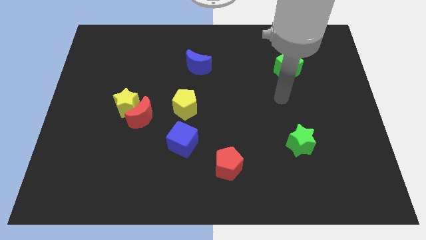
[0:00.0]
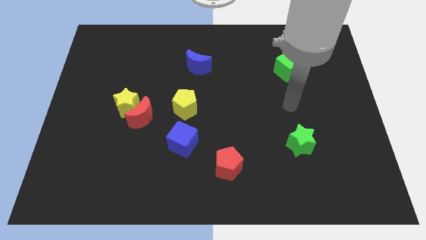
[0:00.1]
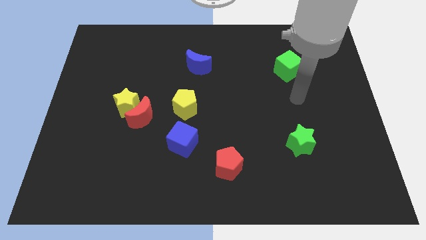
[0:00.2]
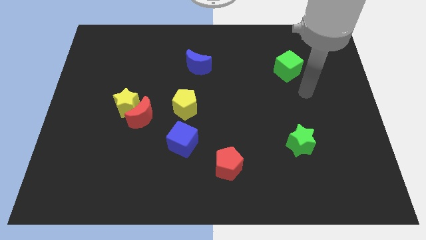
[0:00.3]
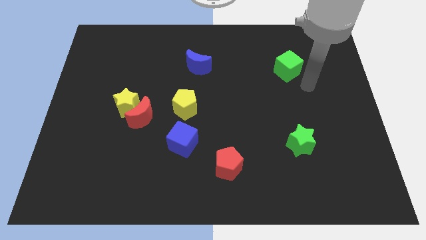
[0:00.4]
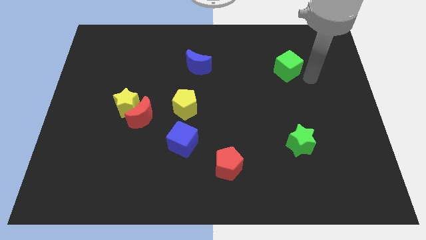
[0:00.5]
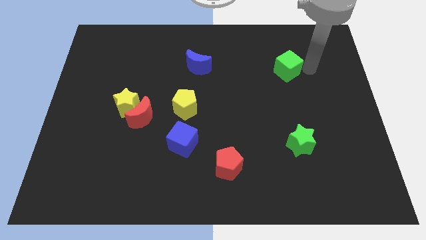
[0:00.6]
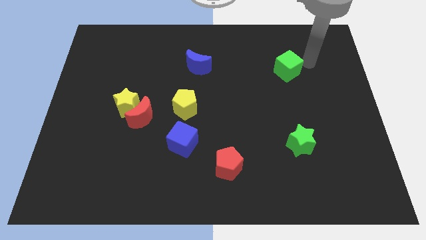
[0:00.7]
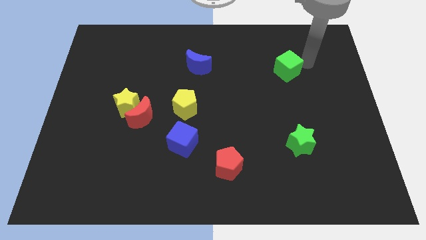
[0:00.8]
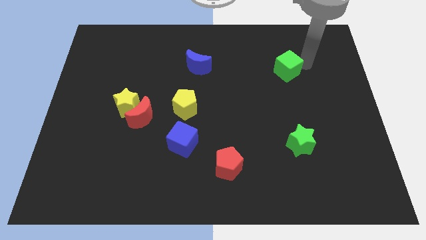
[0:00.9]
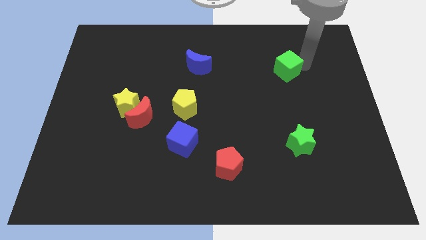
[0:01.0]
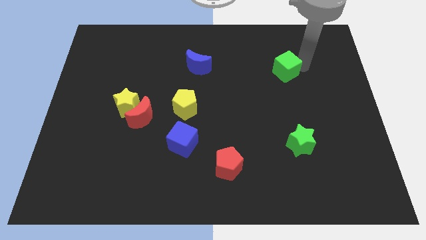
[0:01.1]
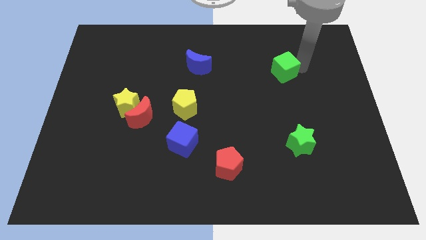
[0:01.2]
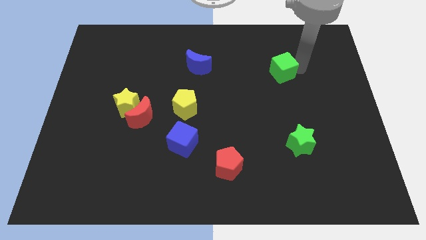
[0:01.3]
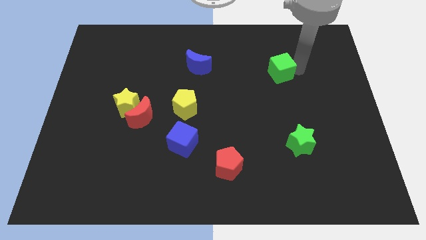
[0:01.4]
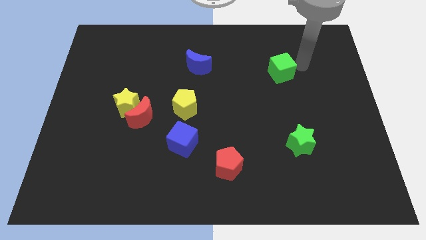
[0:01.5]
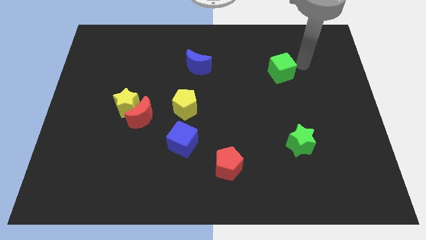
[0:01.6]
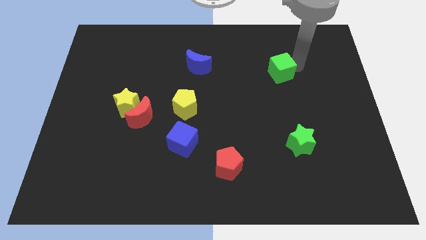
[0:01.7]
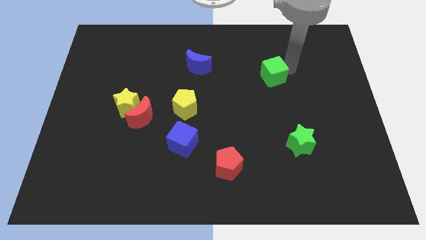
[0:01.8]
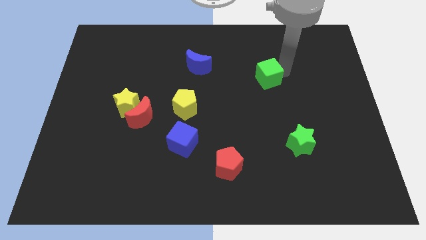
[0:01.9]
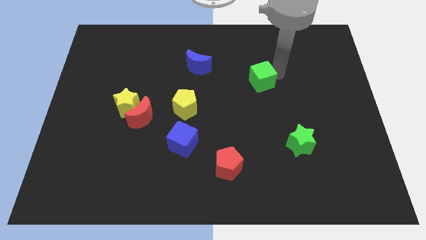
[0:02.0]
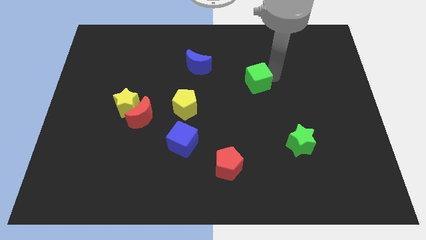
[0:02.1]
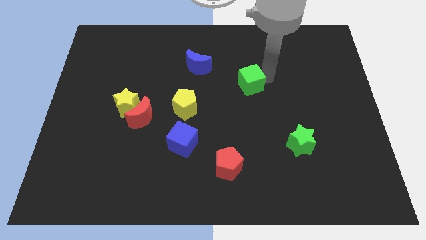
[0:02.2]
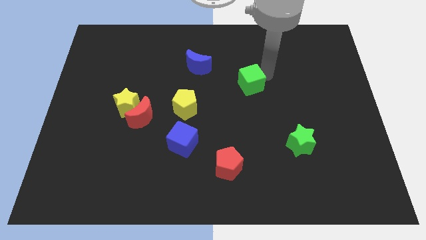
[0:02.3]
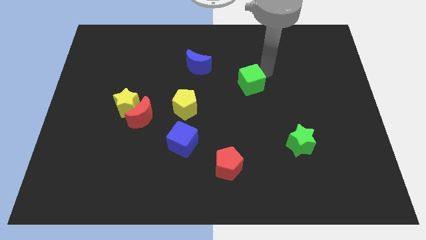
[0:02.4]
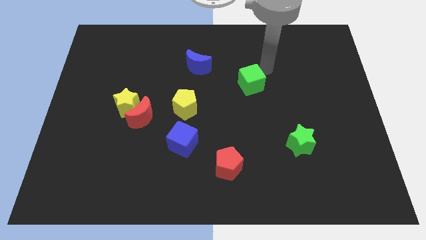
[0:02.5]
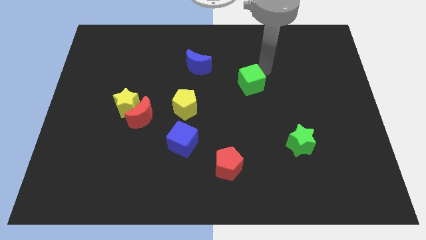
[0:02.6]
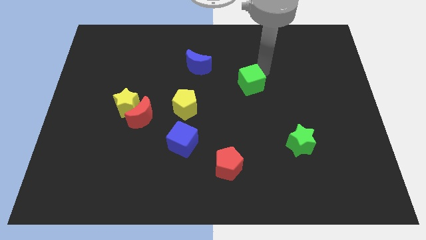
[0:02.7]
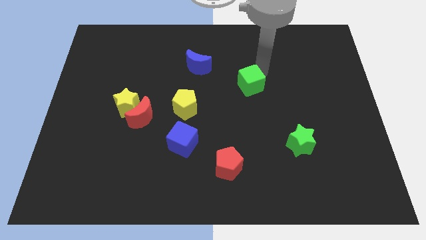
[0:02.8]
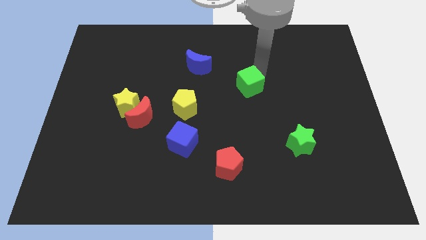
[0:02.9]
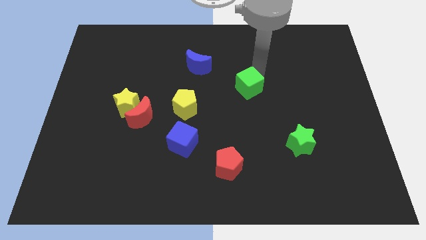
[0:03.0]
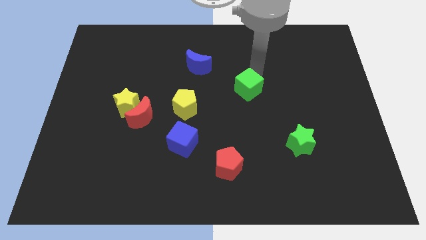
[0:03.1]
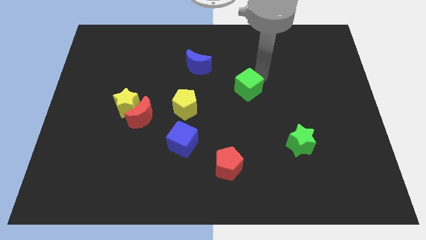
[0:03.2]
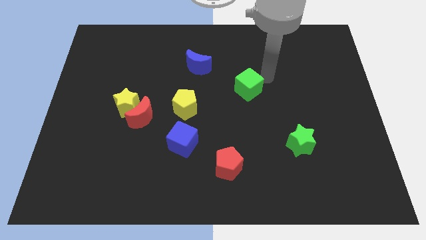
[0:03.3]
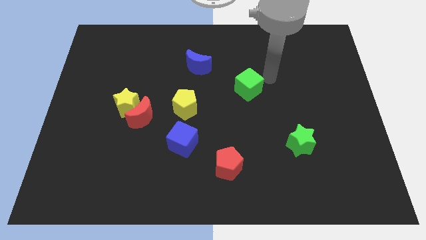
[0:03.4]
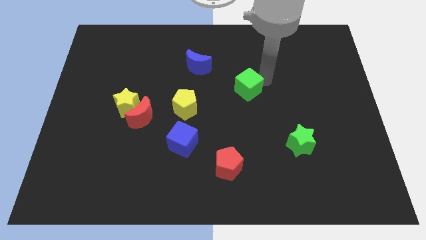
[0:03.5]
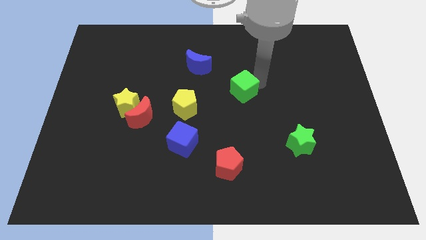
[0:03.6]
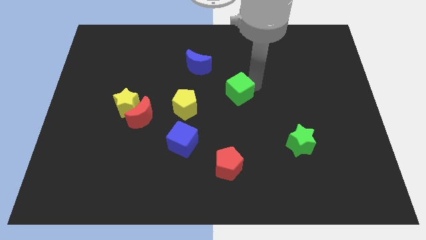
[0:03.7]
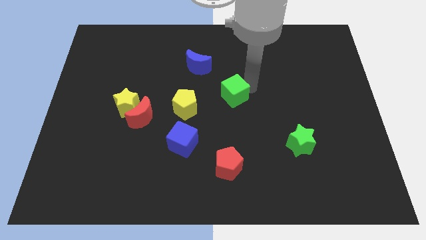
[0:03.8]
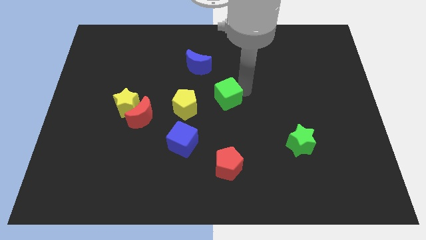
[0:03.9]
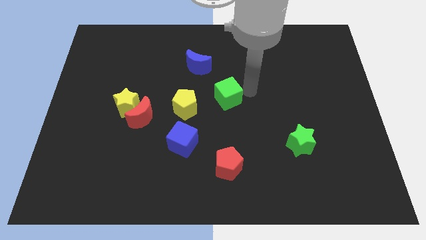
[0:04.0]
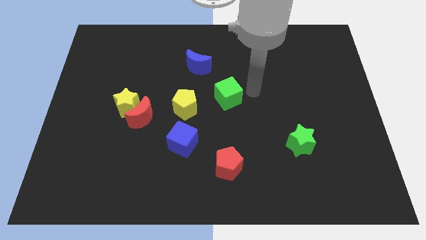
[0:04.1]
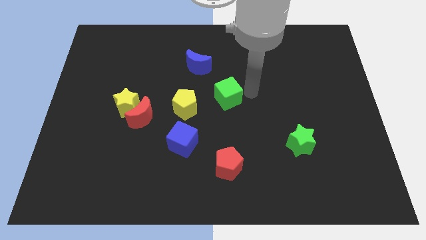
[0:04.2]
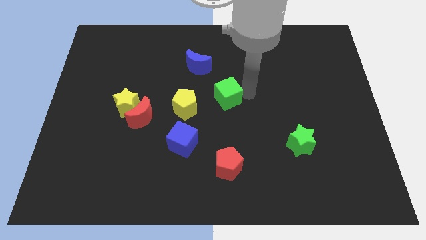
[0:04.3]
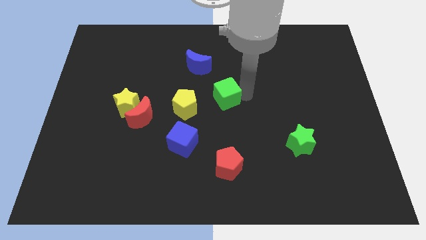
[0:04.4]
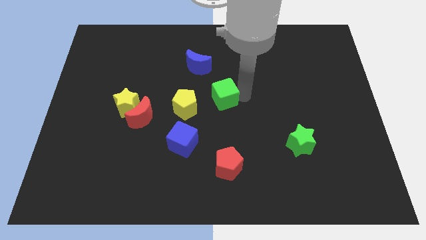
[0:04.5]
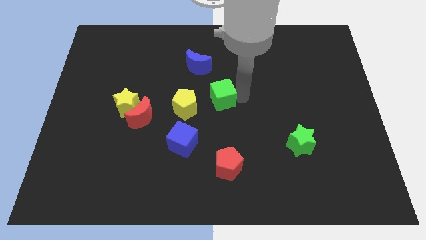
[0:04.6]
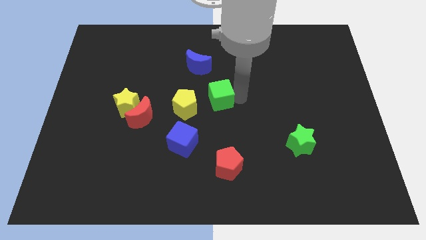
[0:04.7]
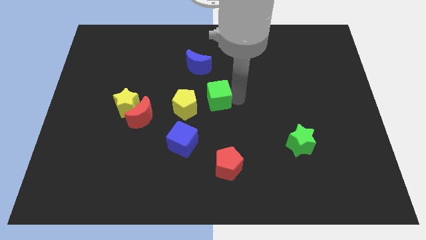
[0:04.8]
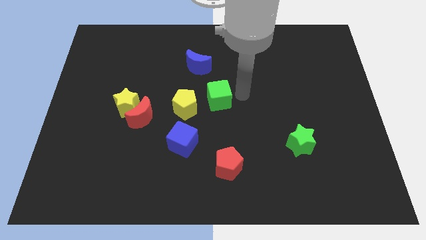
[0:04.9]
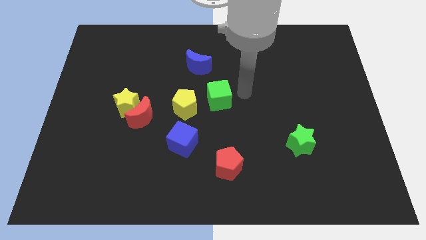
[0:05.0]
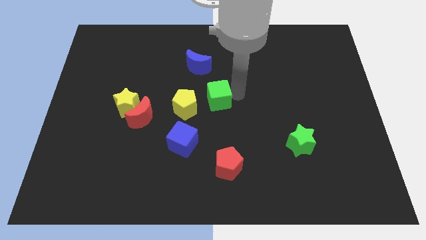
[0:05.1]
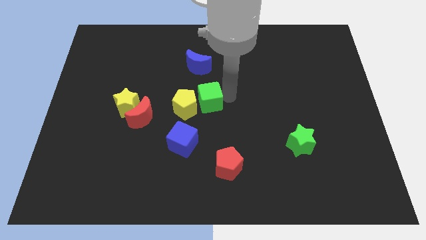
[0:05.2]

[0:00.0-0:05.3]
slide the green cube towards the yellow pentagon

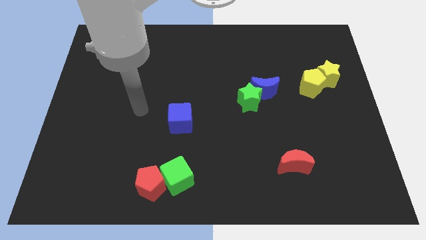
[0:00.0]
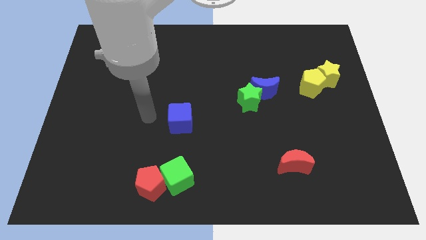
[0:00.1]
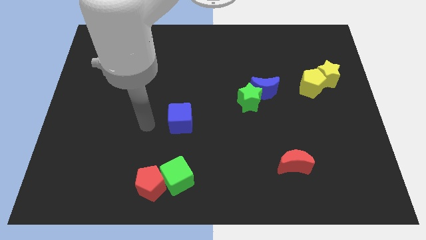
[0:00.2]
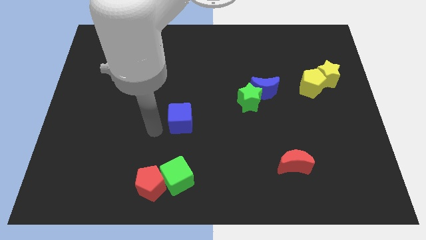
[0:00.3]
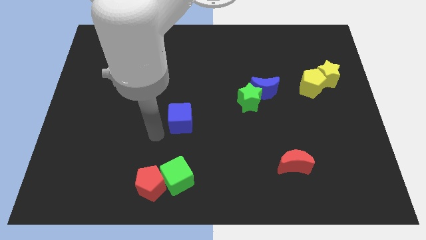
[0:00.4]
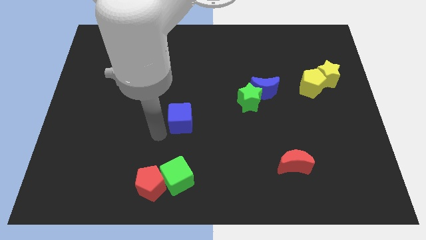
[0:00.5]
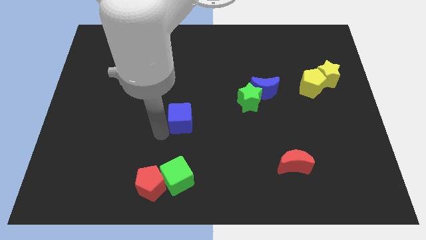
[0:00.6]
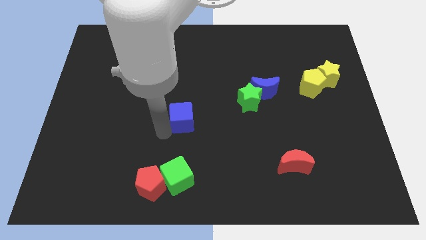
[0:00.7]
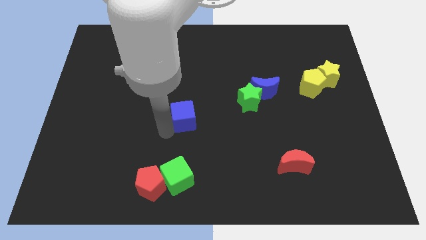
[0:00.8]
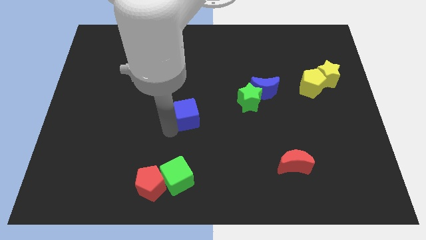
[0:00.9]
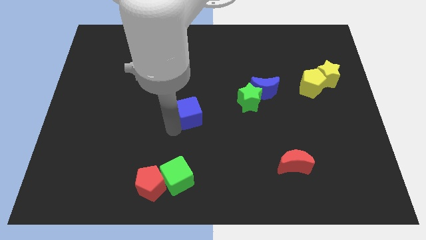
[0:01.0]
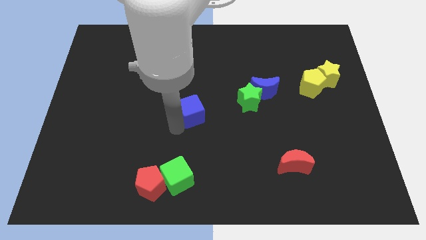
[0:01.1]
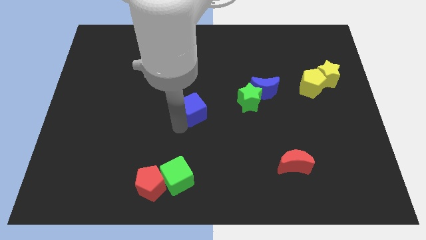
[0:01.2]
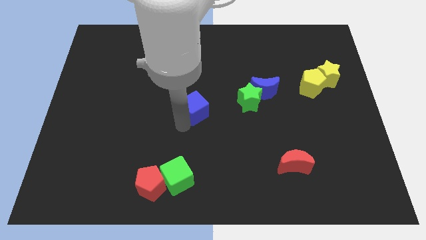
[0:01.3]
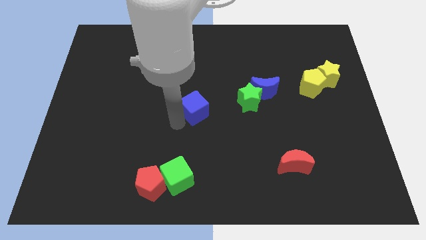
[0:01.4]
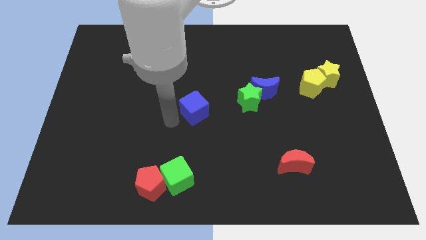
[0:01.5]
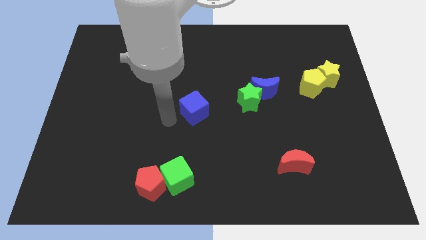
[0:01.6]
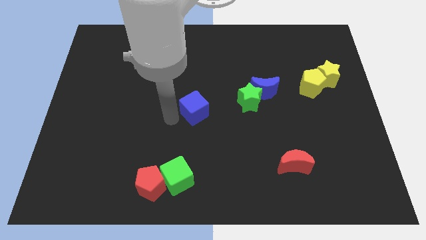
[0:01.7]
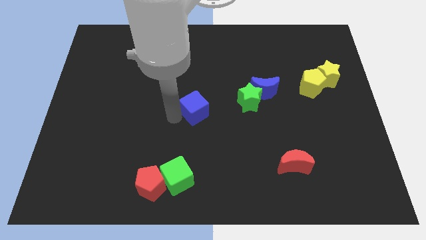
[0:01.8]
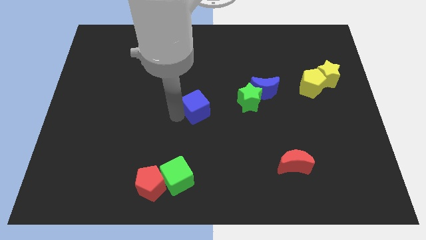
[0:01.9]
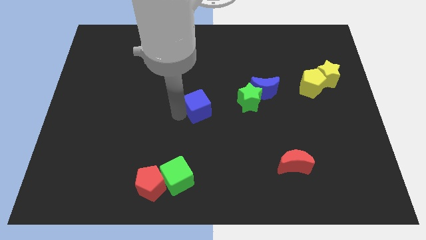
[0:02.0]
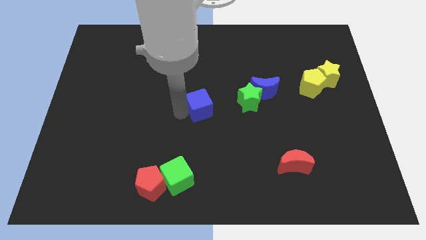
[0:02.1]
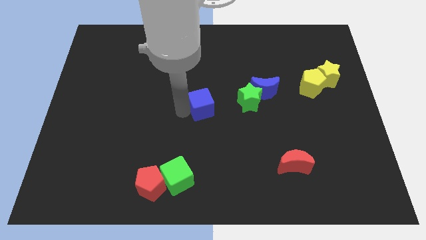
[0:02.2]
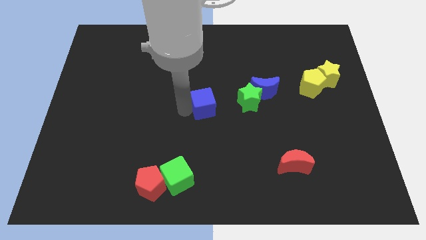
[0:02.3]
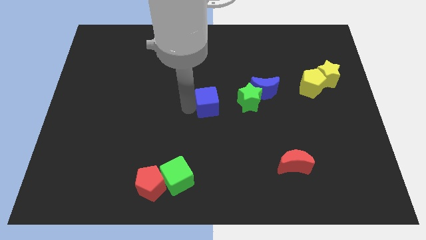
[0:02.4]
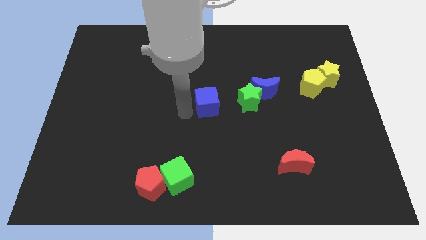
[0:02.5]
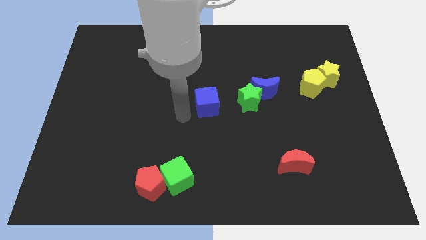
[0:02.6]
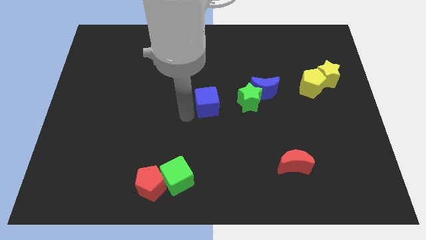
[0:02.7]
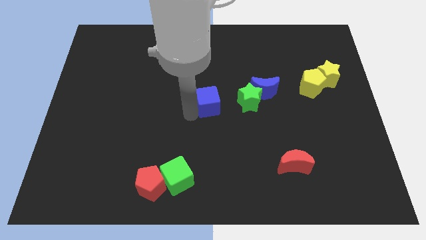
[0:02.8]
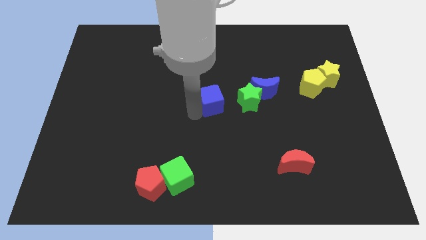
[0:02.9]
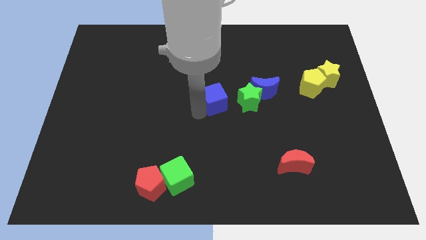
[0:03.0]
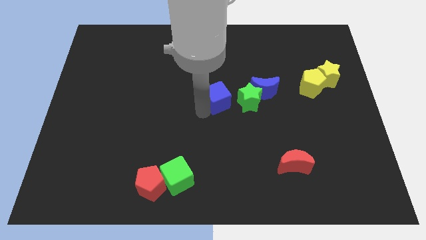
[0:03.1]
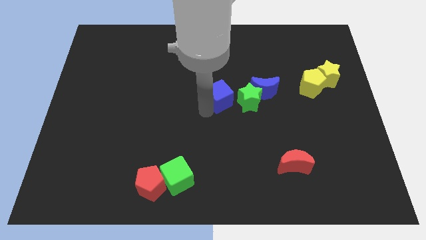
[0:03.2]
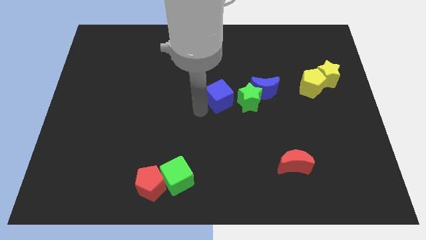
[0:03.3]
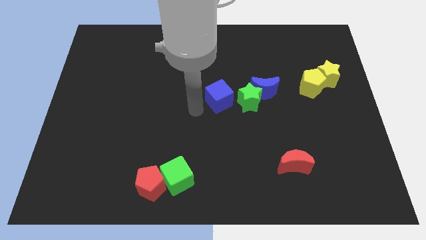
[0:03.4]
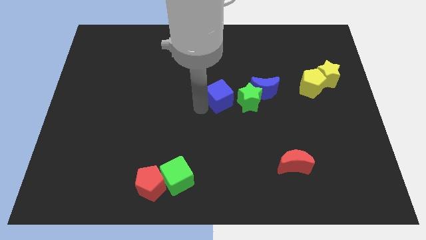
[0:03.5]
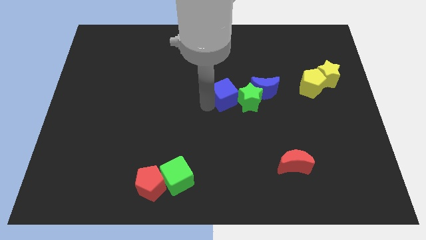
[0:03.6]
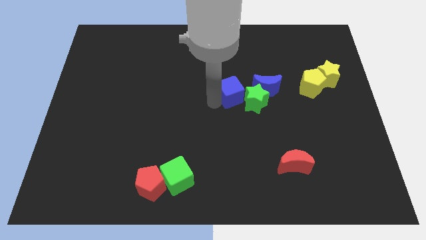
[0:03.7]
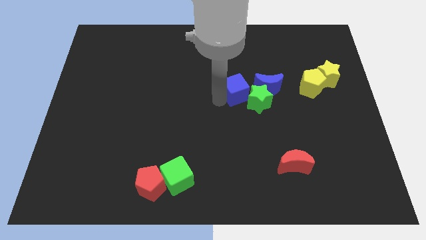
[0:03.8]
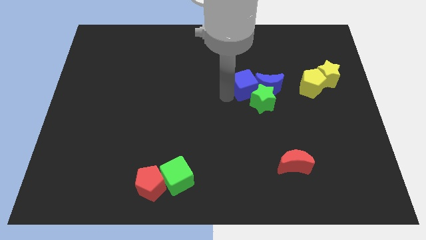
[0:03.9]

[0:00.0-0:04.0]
push the blue cube to the blue moon
